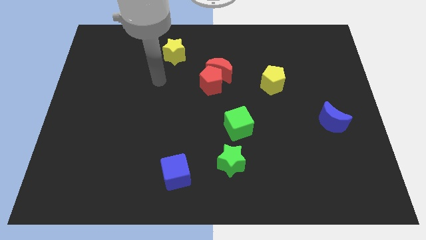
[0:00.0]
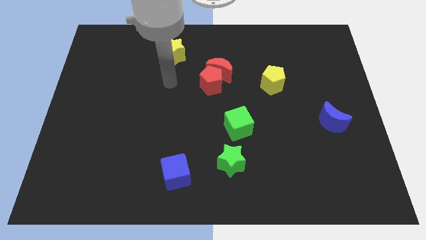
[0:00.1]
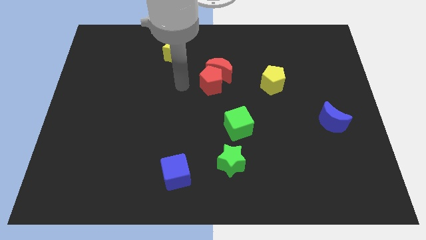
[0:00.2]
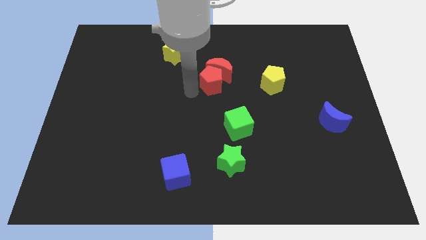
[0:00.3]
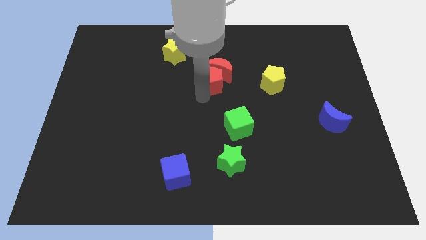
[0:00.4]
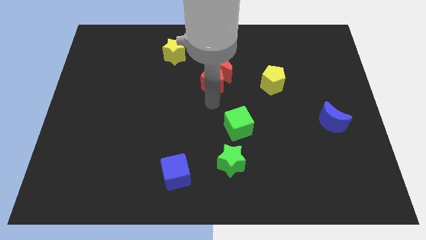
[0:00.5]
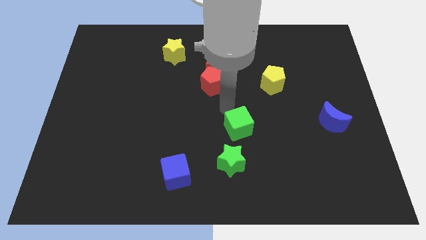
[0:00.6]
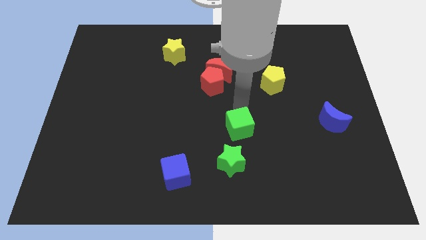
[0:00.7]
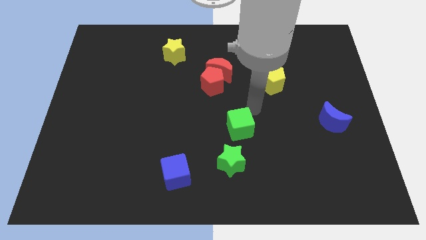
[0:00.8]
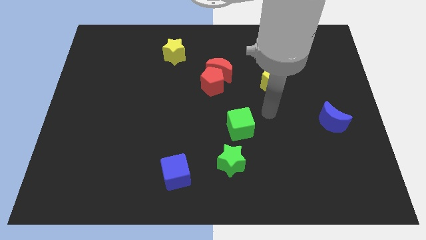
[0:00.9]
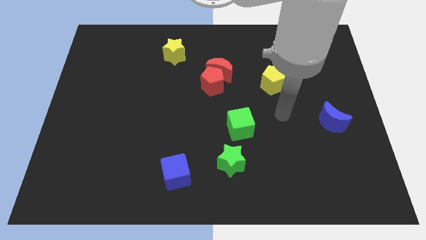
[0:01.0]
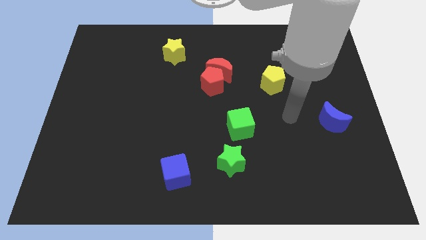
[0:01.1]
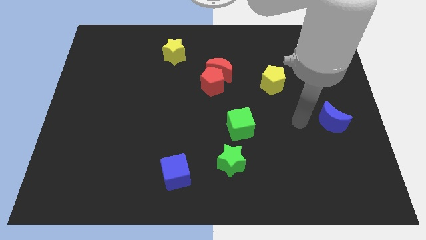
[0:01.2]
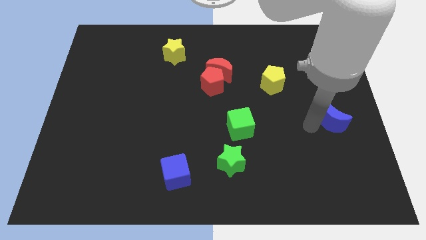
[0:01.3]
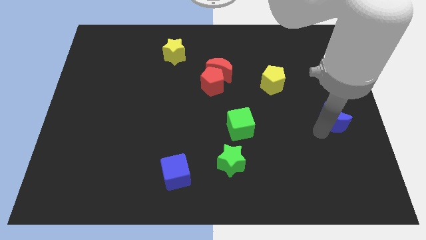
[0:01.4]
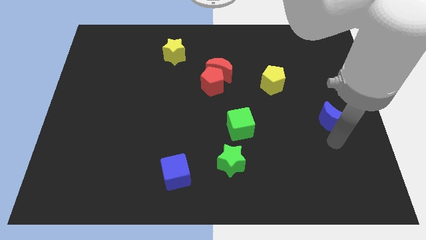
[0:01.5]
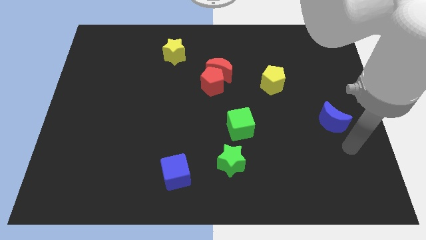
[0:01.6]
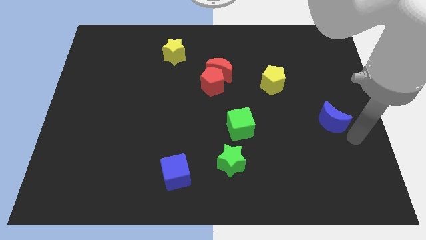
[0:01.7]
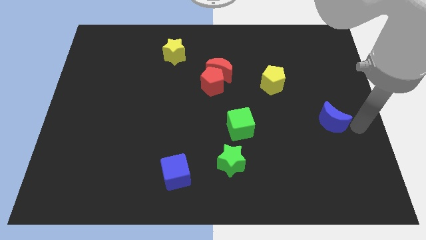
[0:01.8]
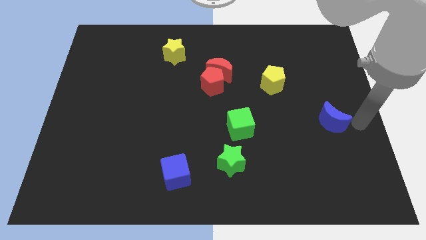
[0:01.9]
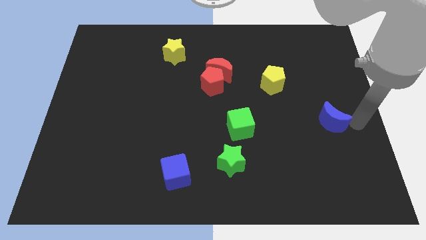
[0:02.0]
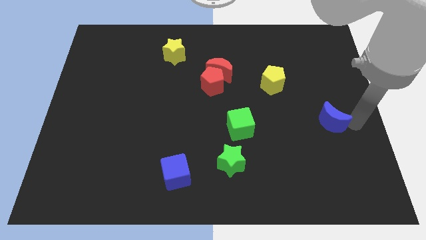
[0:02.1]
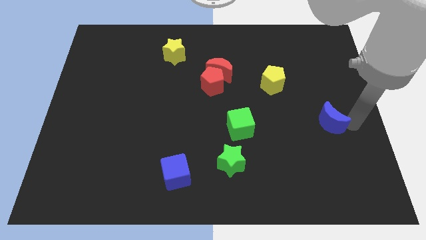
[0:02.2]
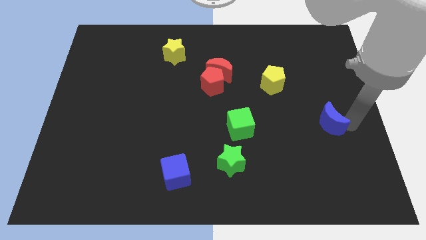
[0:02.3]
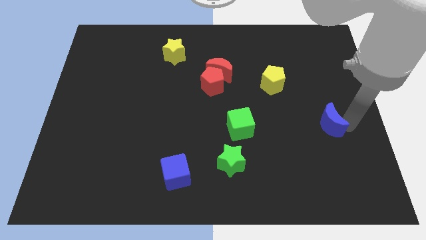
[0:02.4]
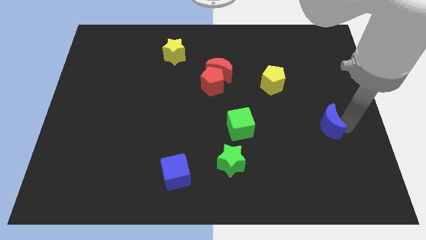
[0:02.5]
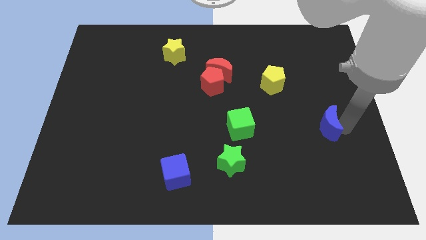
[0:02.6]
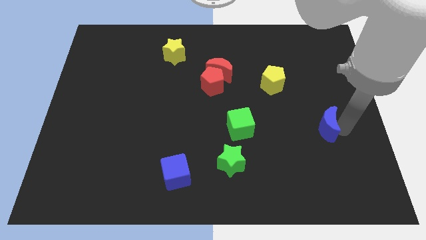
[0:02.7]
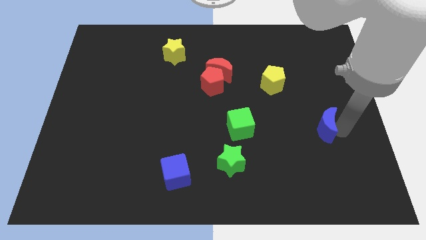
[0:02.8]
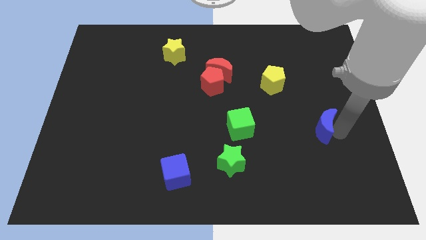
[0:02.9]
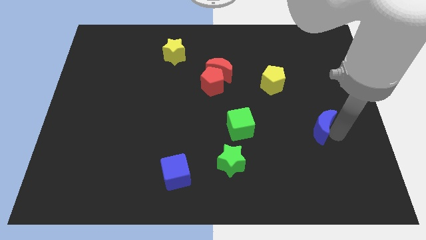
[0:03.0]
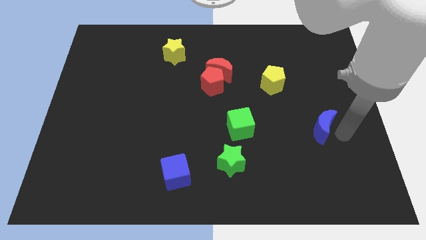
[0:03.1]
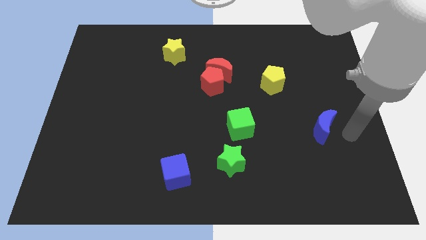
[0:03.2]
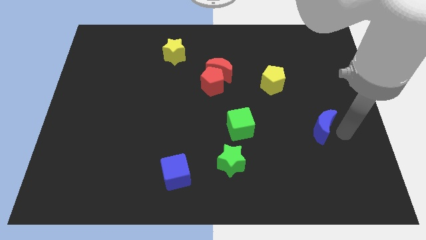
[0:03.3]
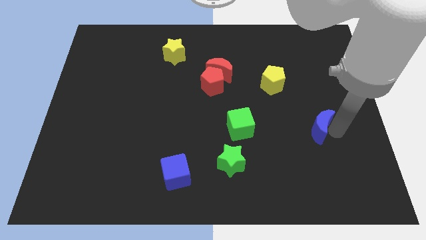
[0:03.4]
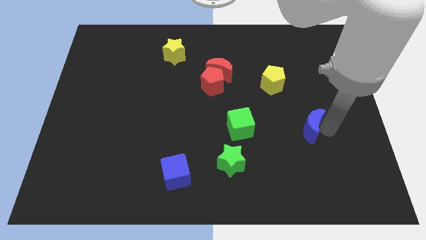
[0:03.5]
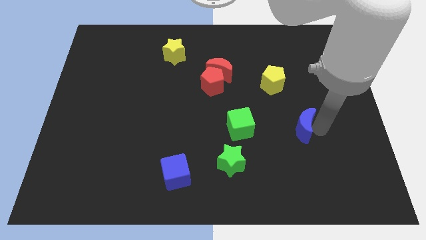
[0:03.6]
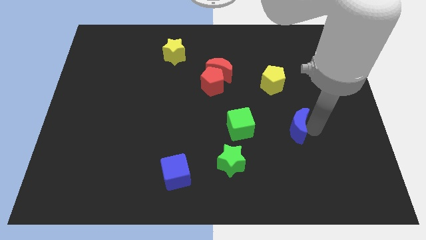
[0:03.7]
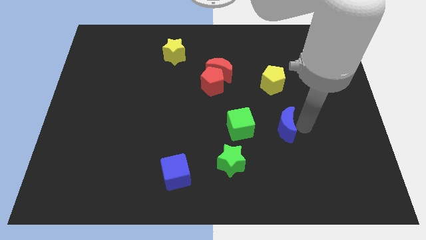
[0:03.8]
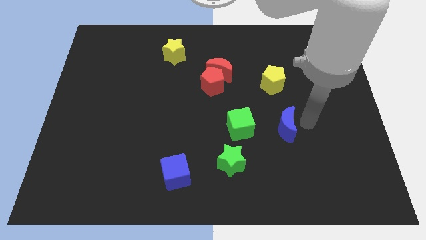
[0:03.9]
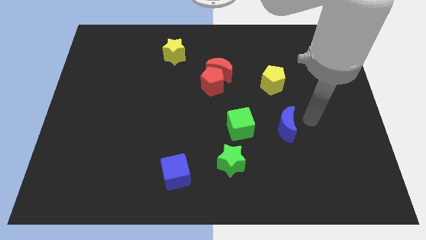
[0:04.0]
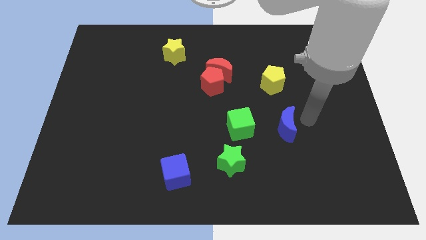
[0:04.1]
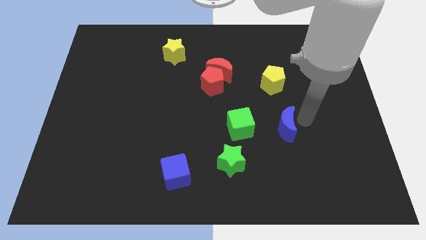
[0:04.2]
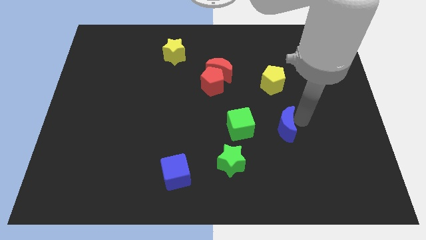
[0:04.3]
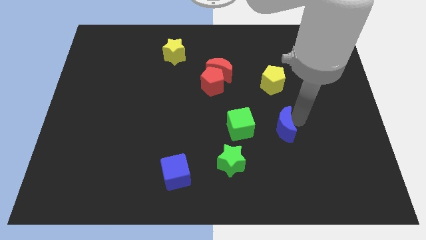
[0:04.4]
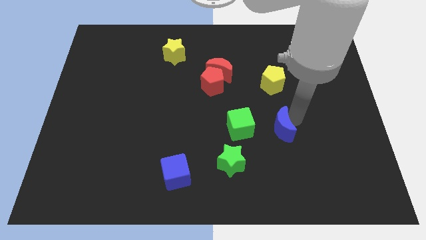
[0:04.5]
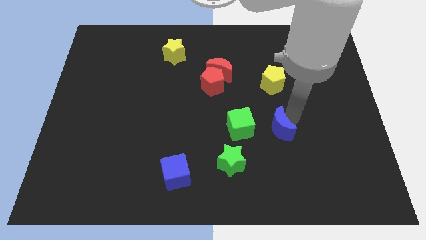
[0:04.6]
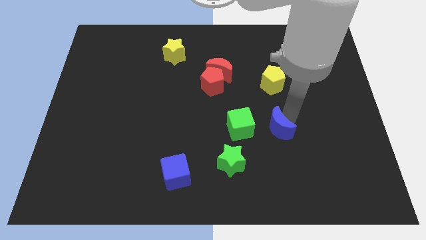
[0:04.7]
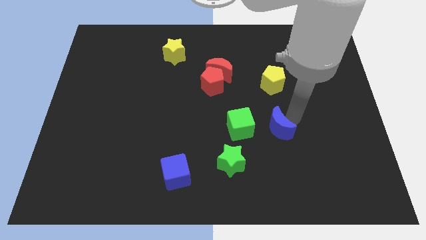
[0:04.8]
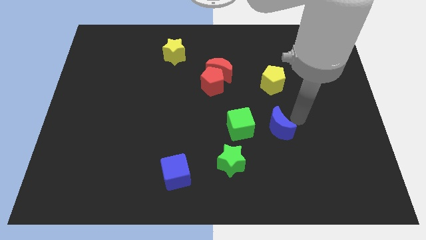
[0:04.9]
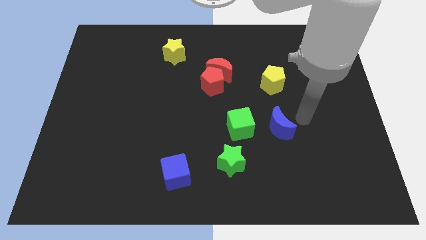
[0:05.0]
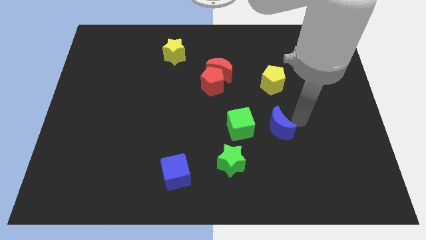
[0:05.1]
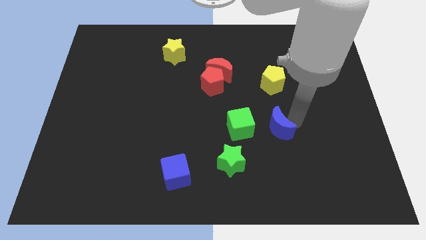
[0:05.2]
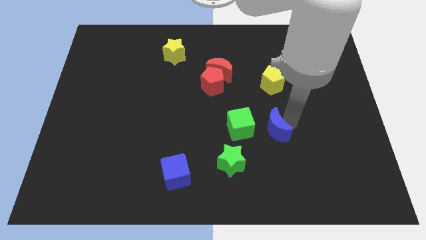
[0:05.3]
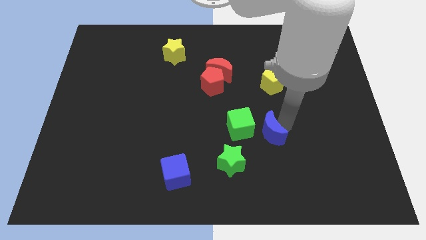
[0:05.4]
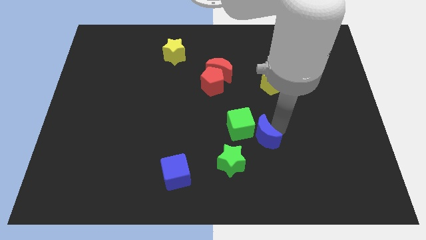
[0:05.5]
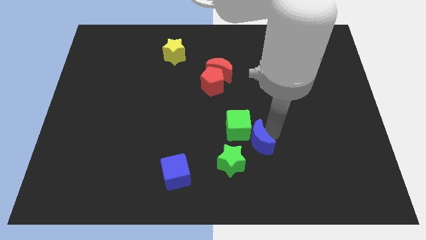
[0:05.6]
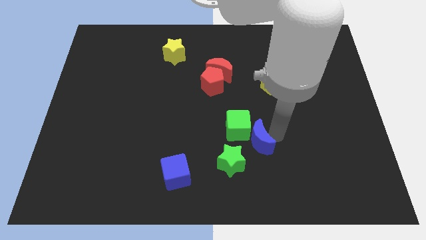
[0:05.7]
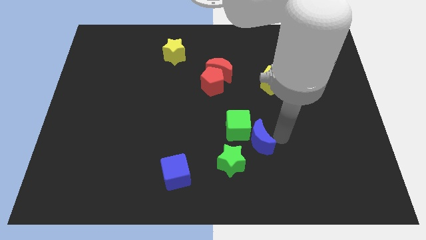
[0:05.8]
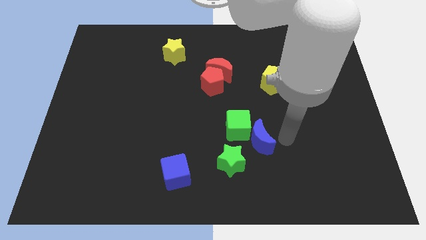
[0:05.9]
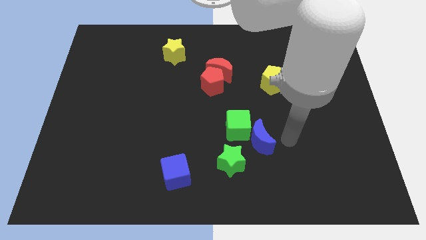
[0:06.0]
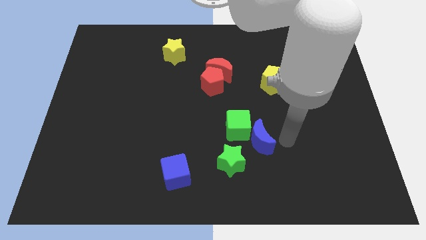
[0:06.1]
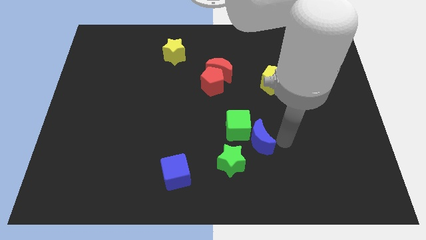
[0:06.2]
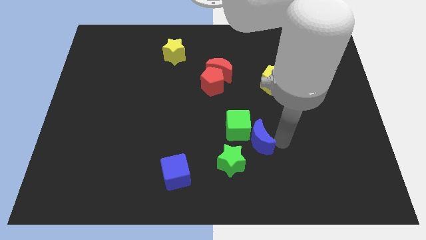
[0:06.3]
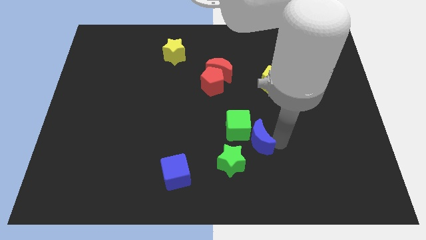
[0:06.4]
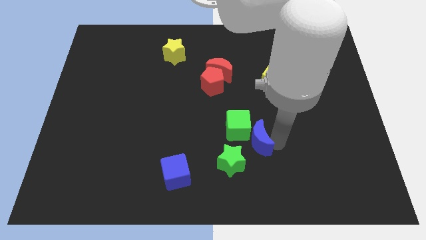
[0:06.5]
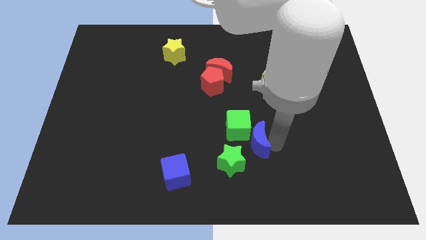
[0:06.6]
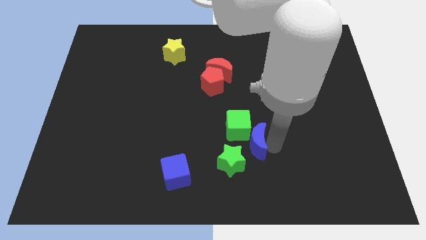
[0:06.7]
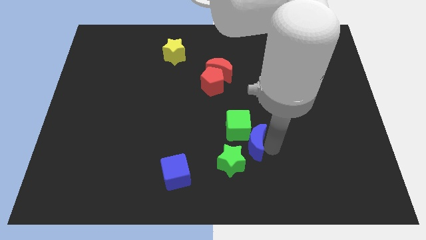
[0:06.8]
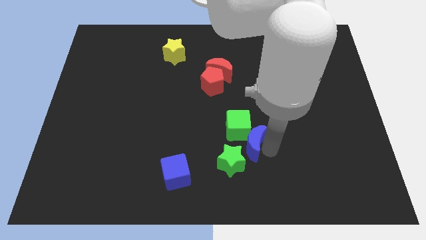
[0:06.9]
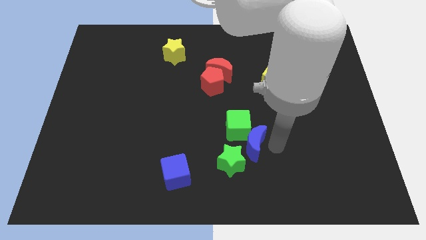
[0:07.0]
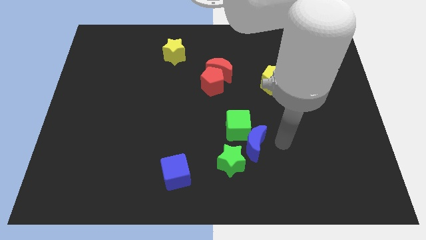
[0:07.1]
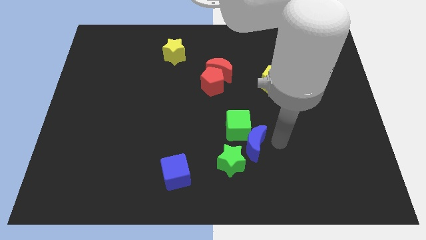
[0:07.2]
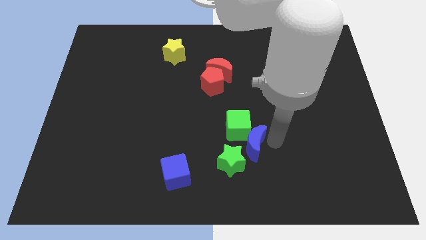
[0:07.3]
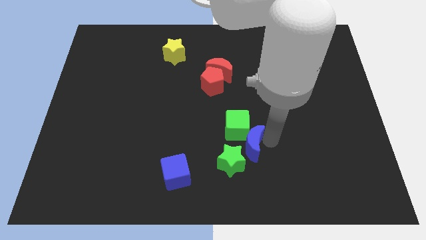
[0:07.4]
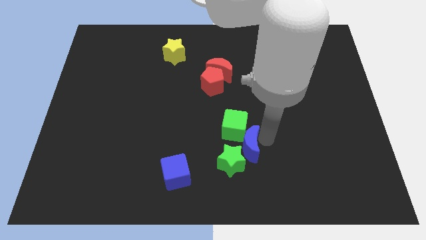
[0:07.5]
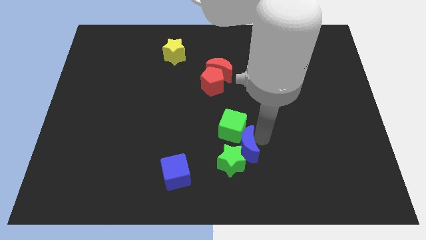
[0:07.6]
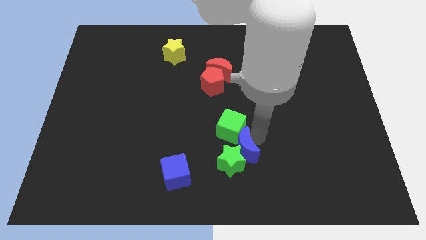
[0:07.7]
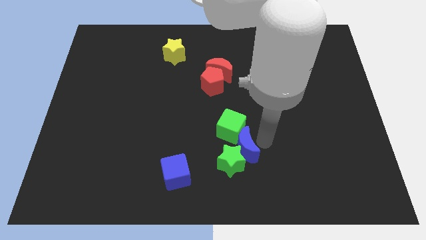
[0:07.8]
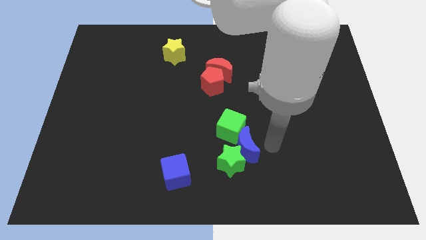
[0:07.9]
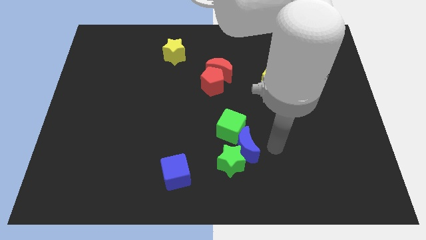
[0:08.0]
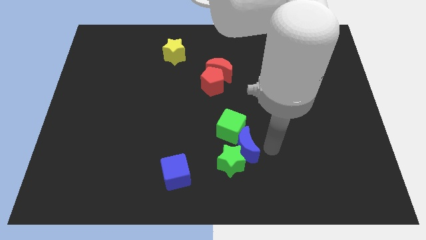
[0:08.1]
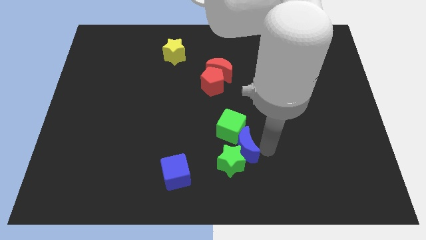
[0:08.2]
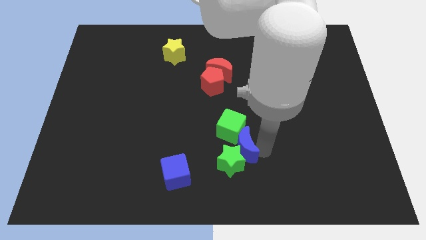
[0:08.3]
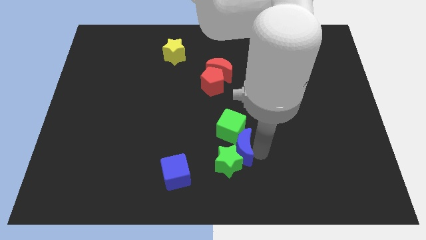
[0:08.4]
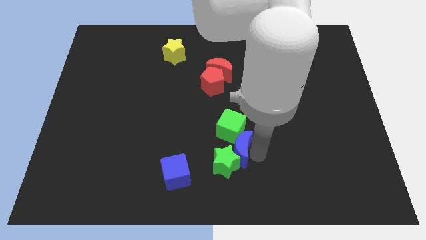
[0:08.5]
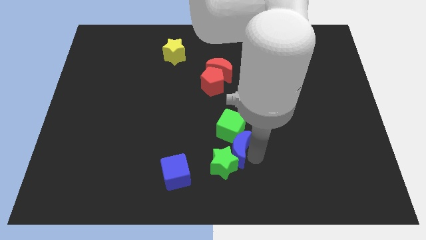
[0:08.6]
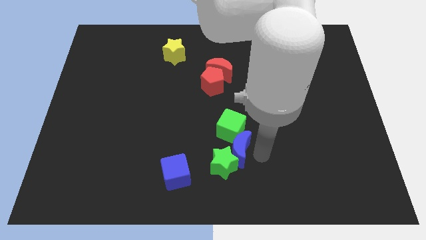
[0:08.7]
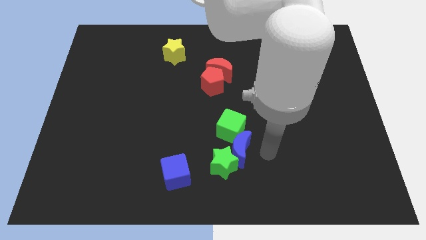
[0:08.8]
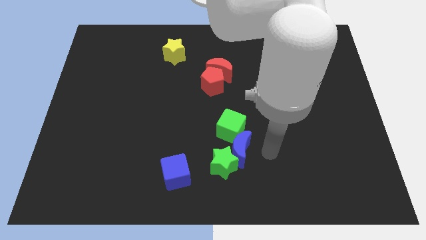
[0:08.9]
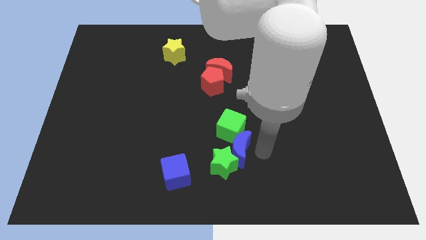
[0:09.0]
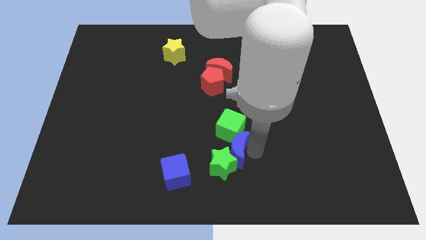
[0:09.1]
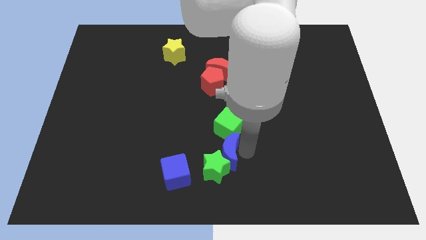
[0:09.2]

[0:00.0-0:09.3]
push the blue moon to the bottom left of the green cube
